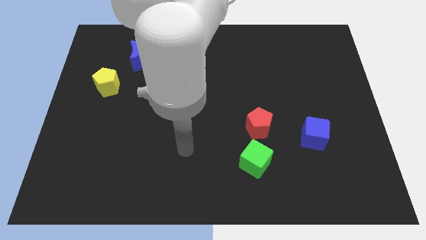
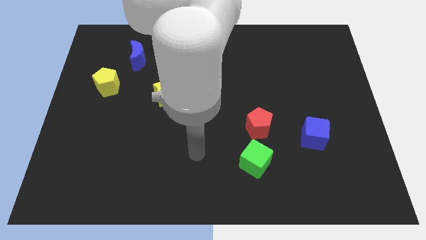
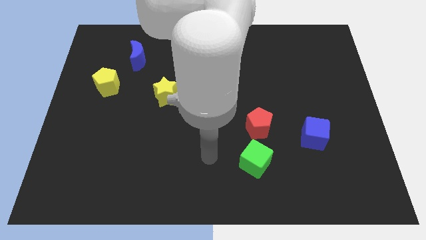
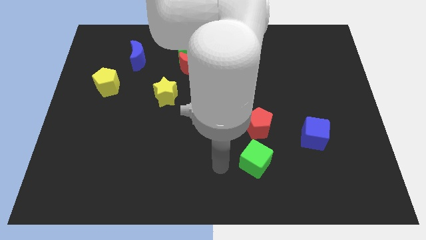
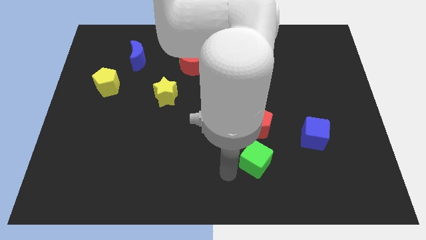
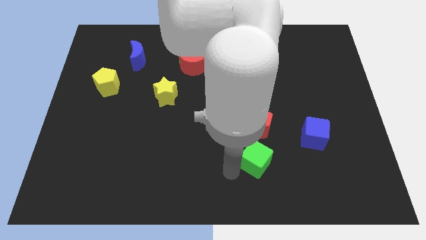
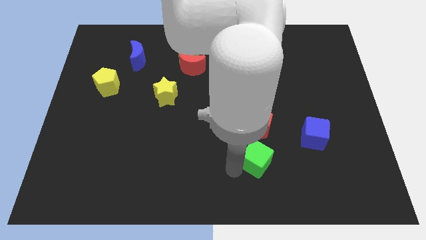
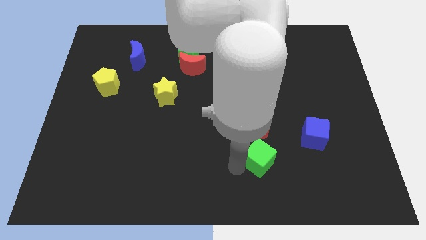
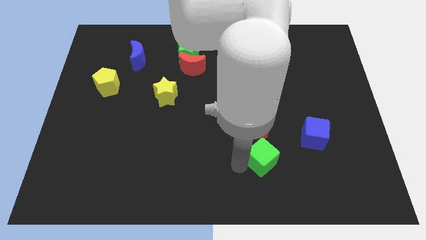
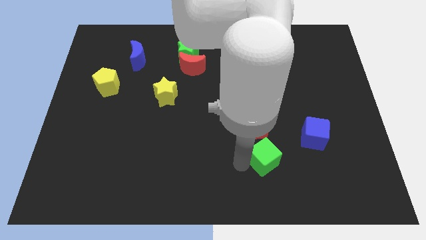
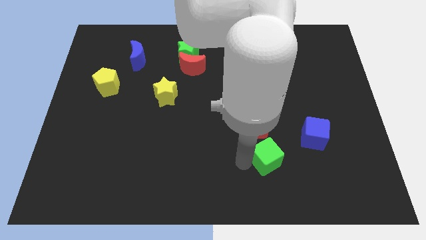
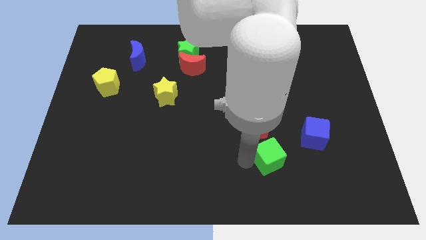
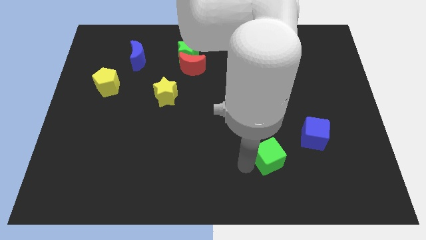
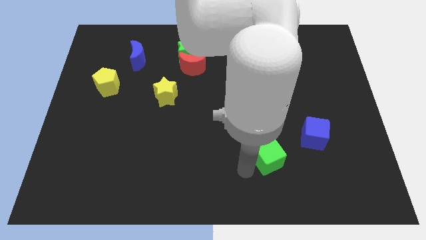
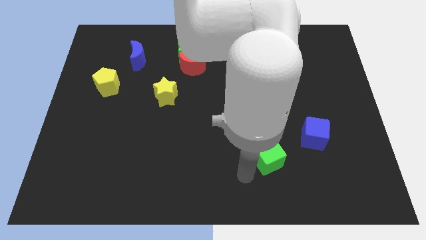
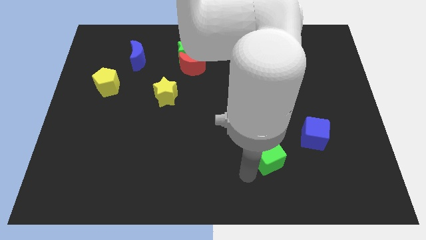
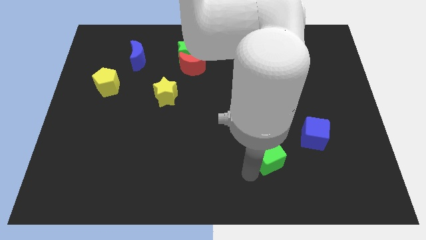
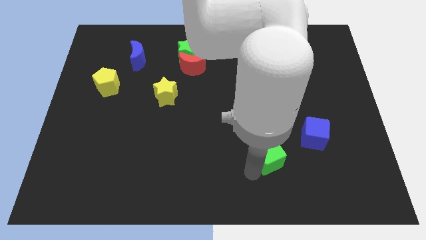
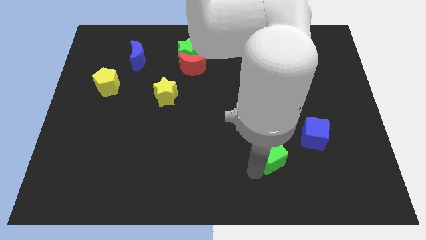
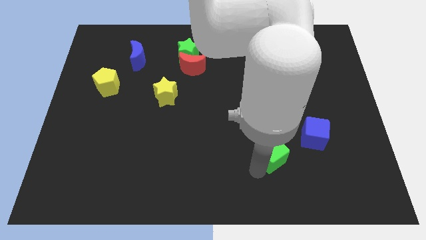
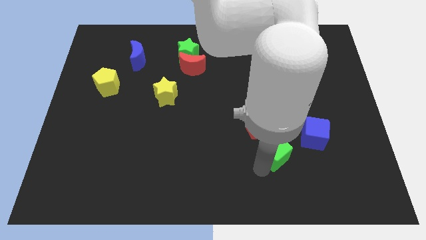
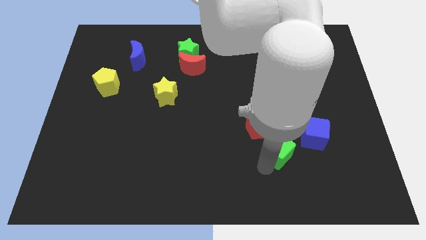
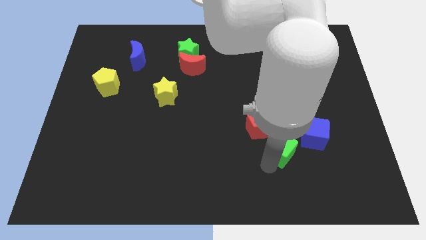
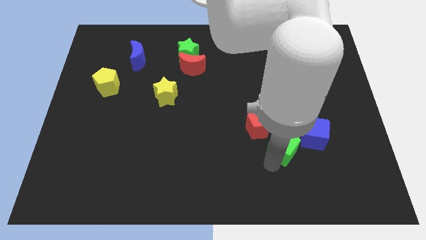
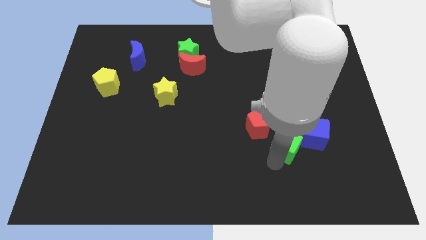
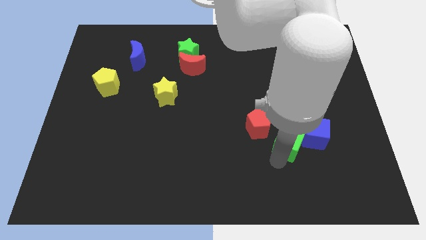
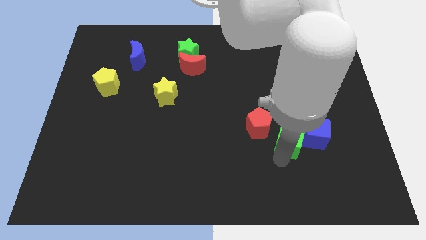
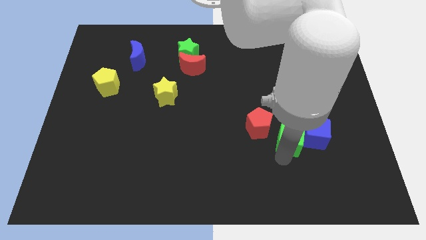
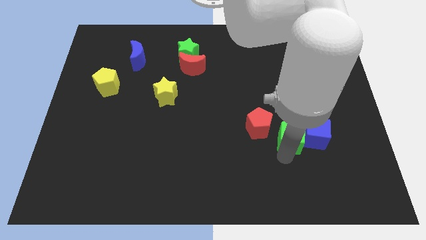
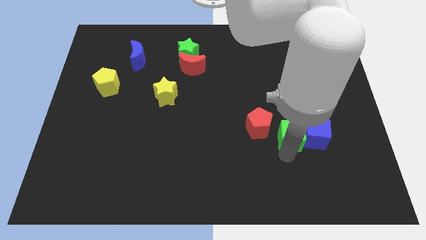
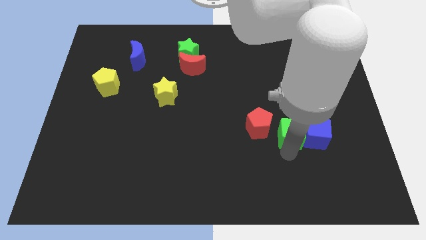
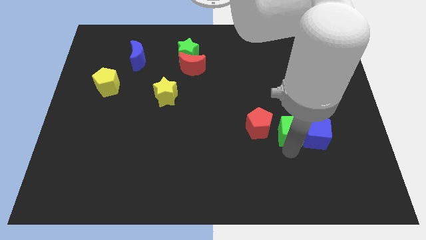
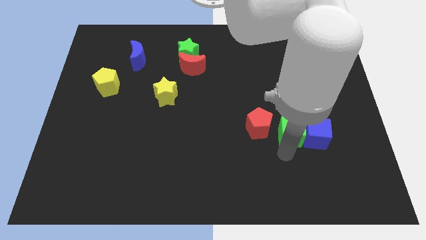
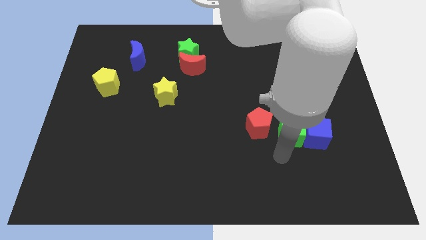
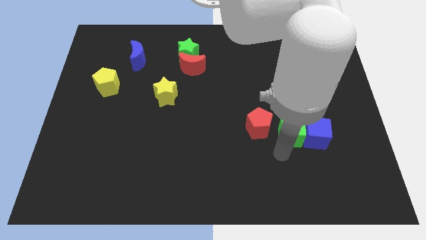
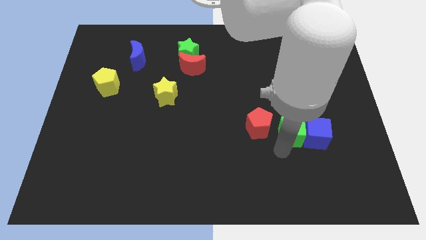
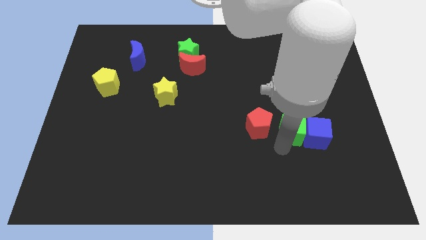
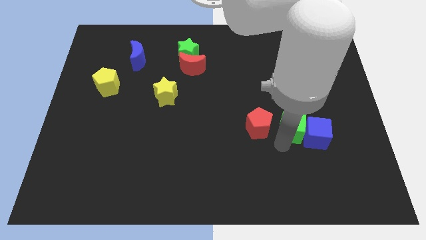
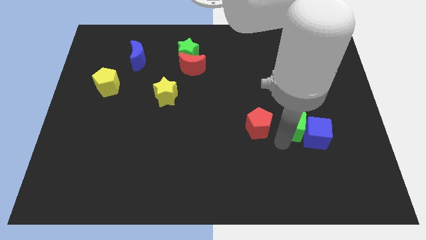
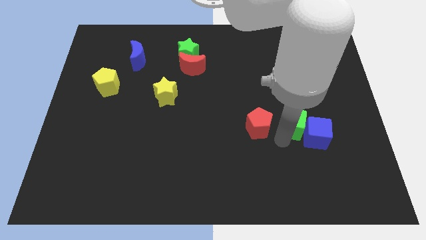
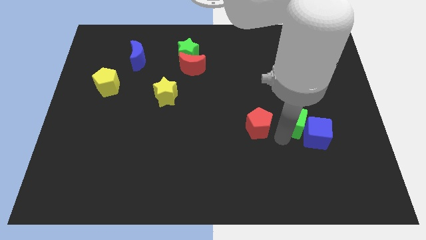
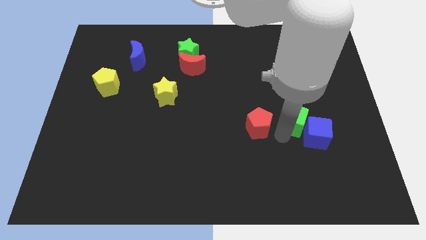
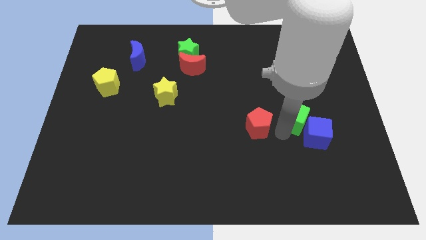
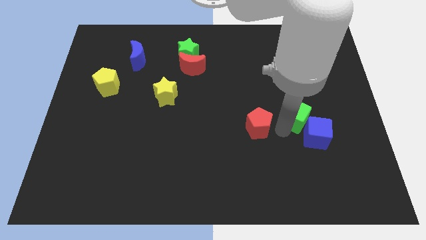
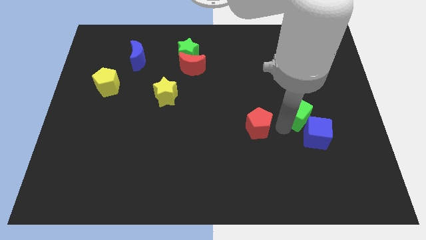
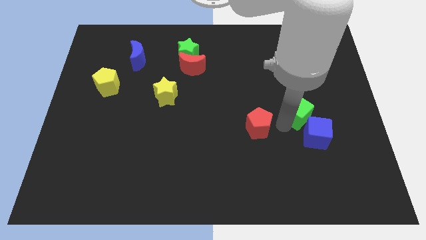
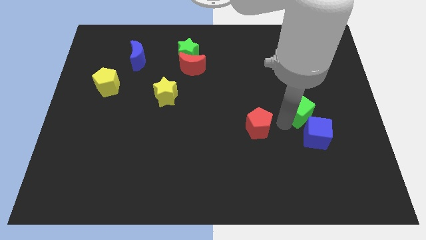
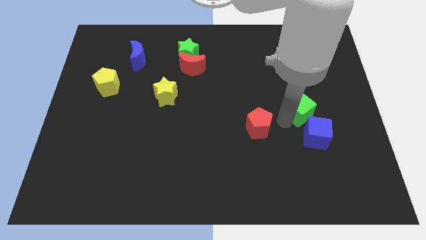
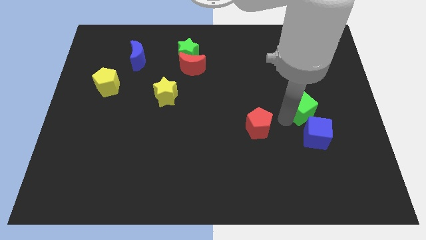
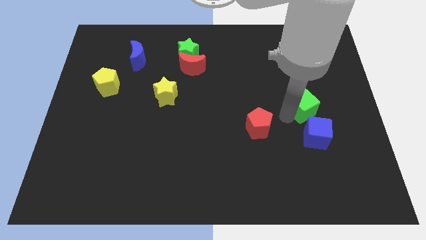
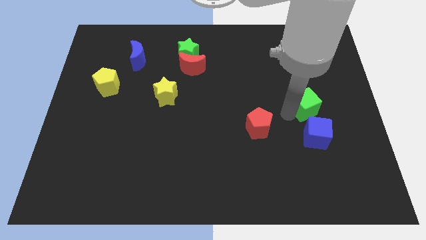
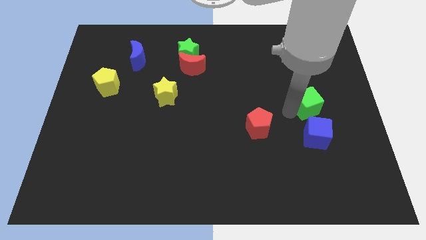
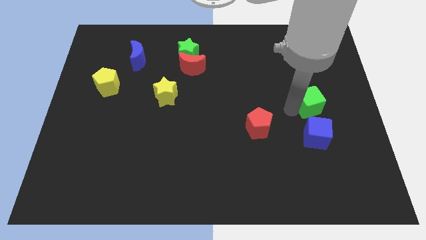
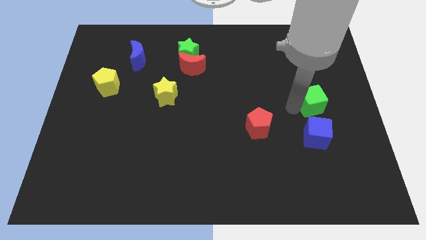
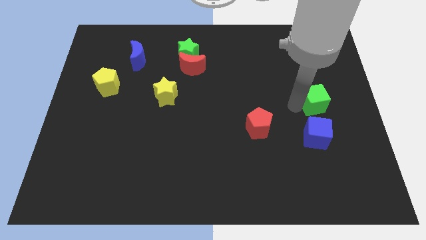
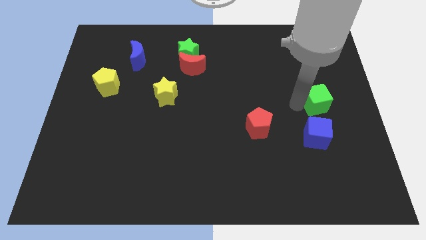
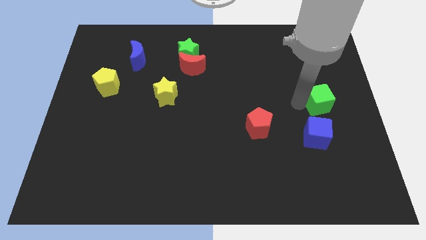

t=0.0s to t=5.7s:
slide the green cube to the right side of the board

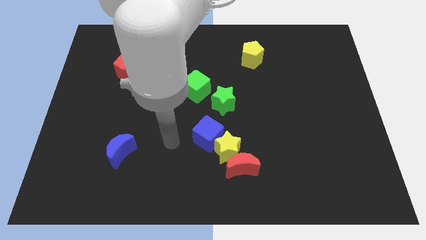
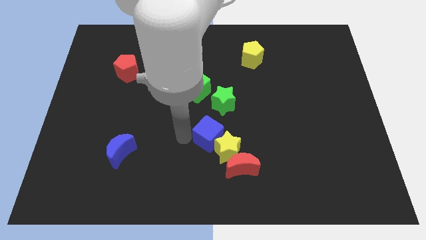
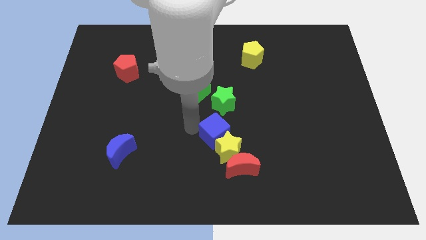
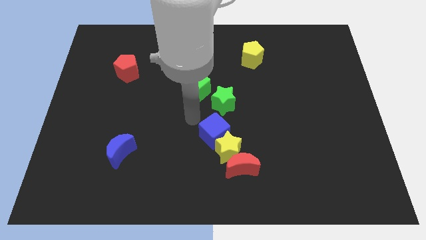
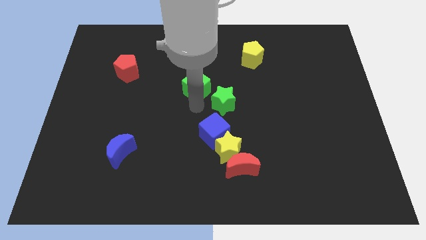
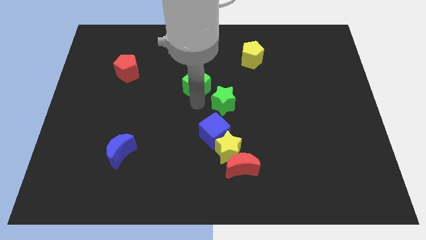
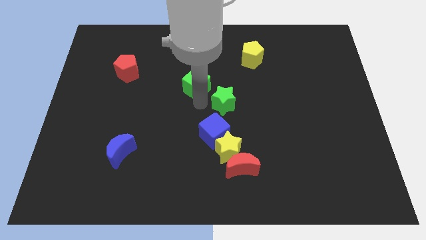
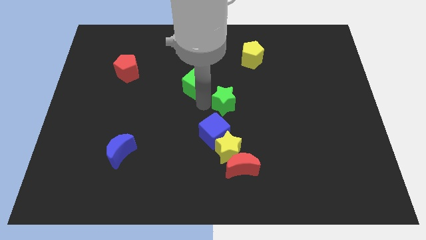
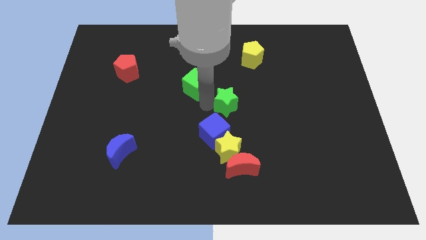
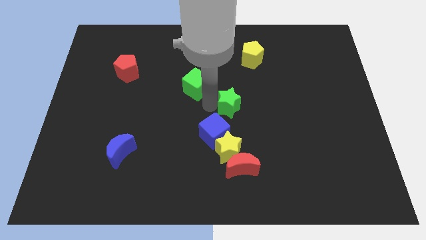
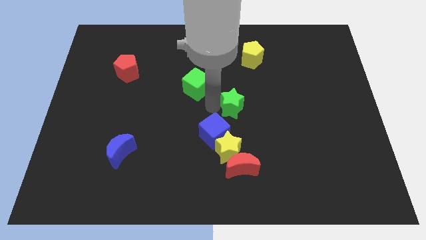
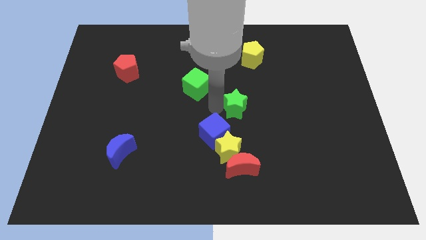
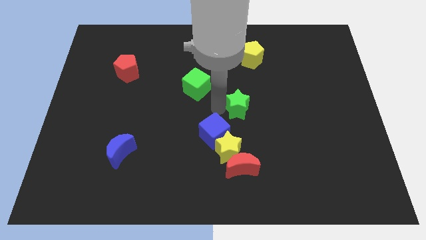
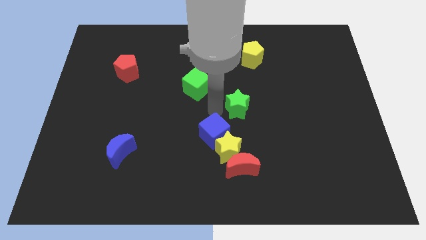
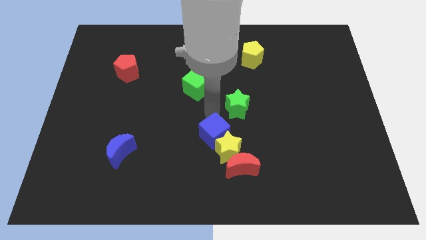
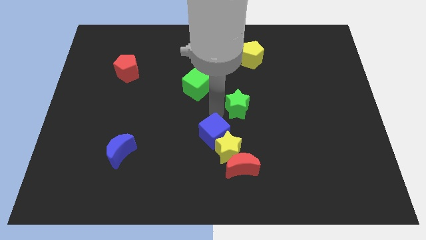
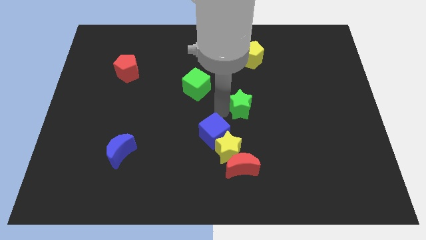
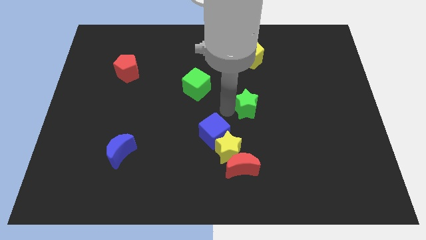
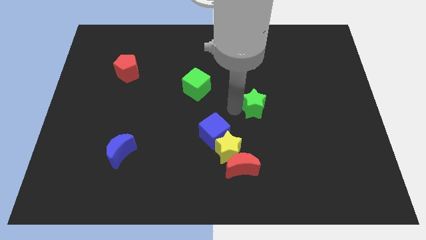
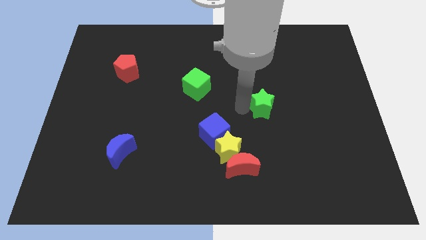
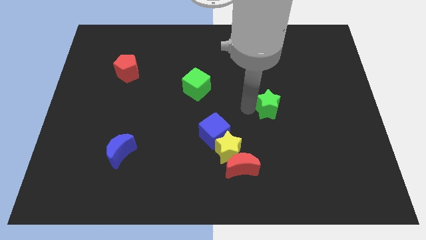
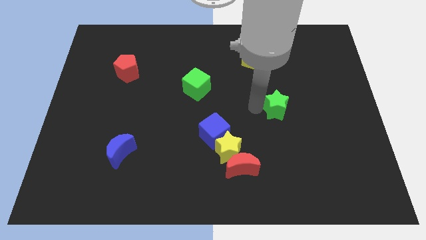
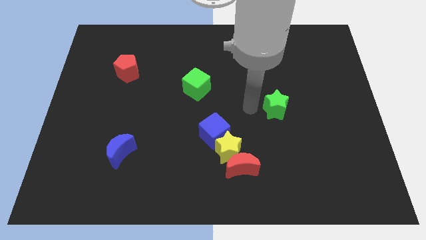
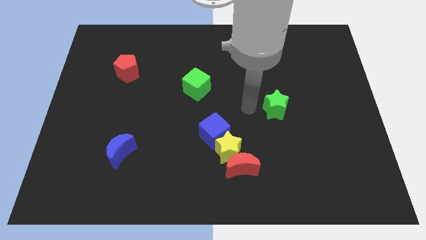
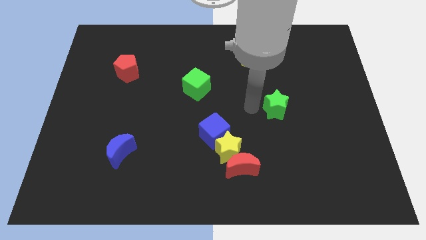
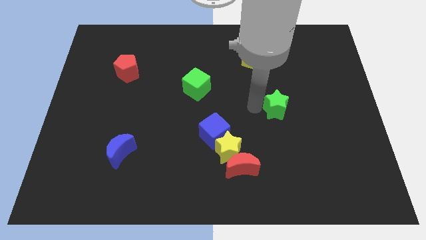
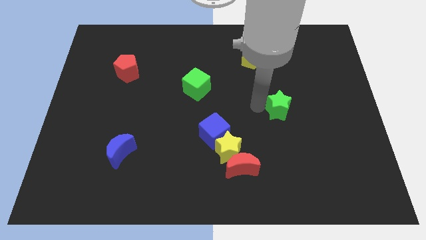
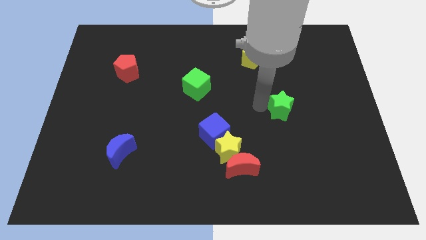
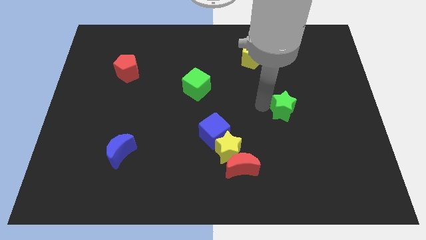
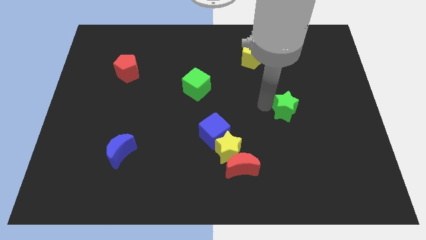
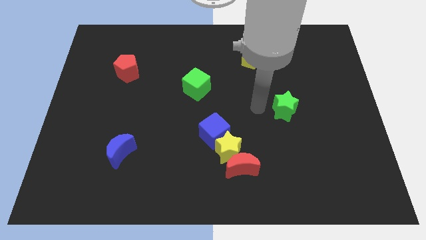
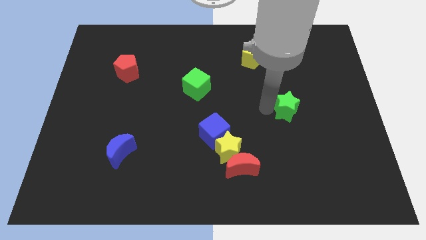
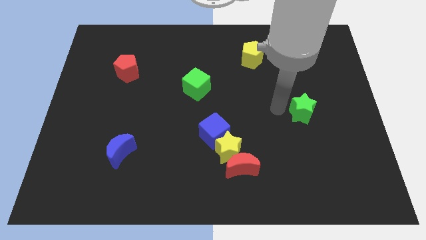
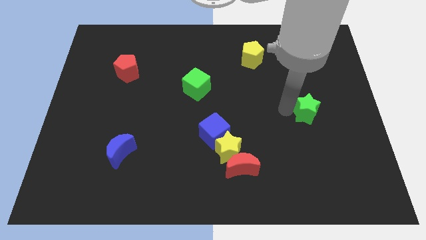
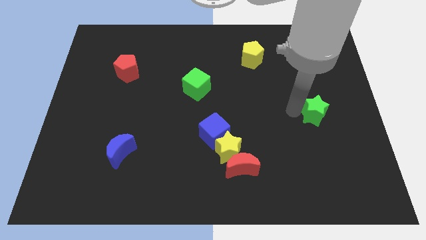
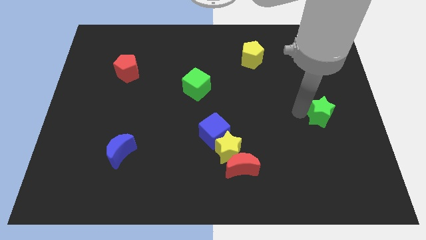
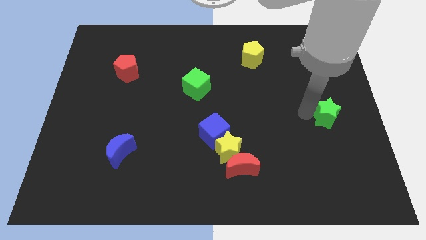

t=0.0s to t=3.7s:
push the green star to the right side
